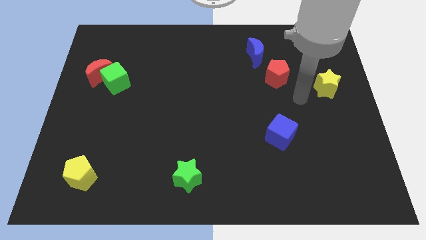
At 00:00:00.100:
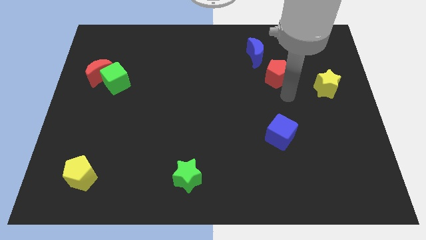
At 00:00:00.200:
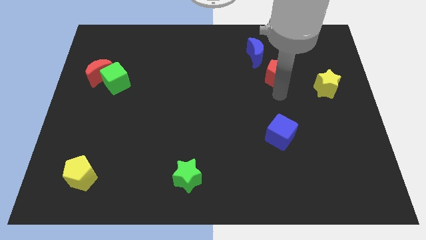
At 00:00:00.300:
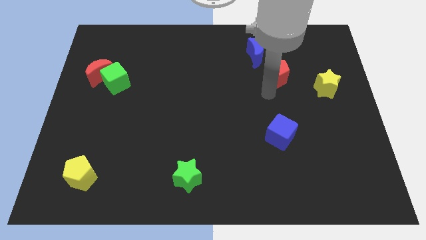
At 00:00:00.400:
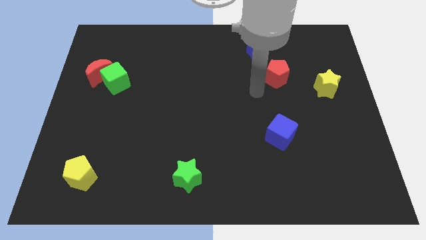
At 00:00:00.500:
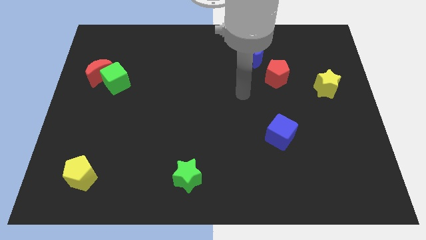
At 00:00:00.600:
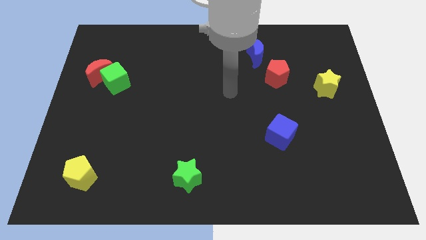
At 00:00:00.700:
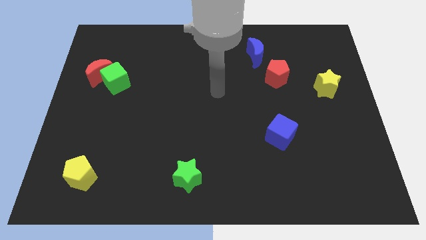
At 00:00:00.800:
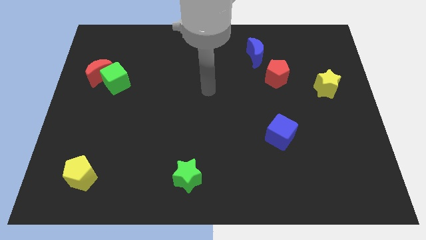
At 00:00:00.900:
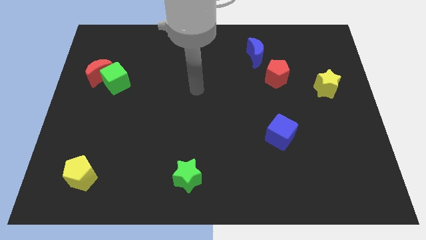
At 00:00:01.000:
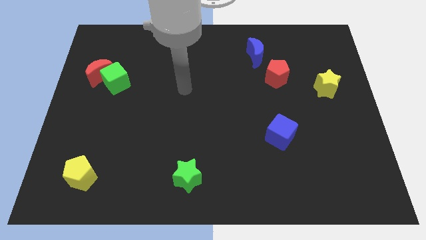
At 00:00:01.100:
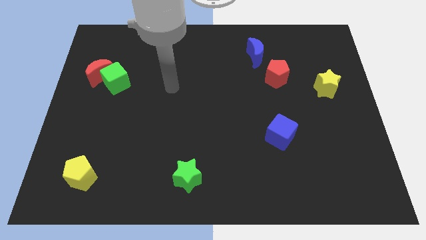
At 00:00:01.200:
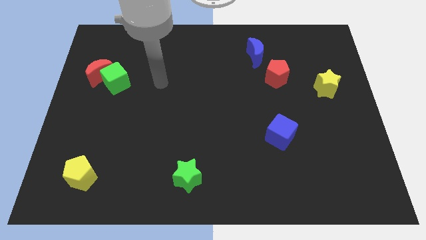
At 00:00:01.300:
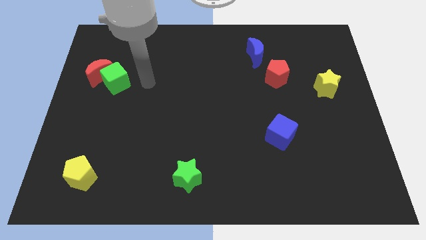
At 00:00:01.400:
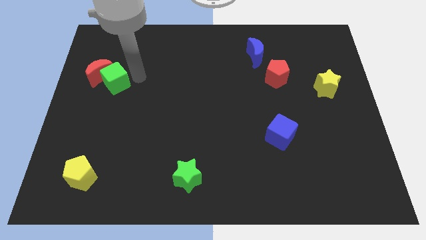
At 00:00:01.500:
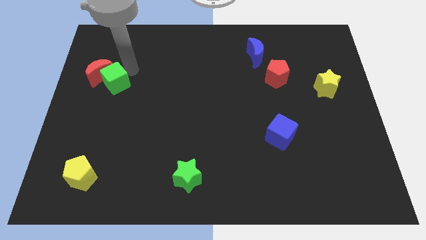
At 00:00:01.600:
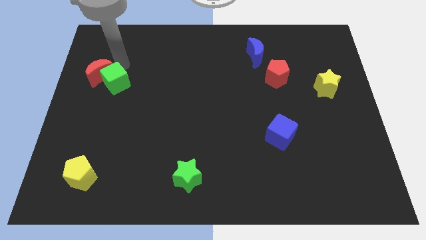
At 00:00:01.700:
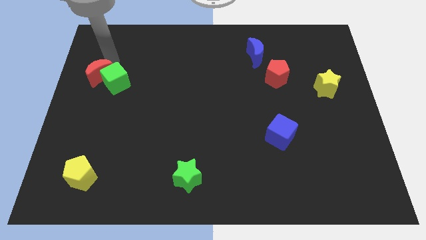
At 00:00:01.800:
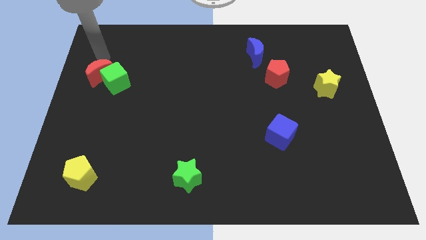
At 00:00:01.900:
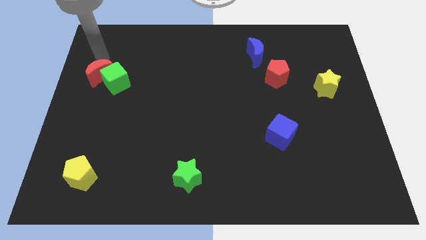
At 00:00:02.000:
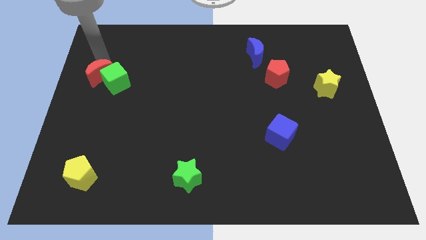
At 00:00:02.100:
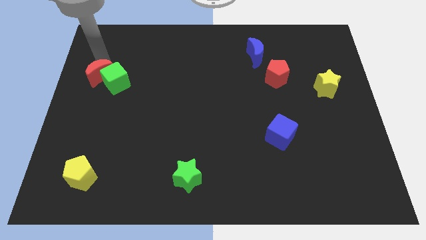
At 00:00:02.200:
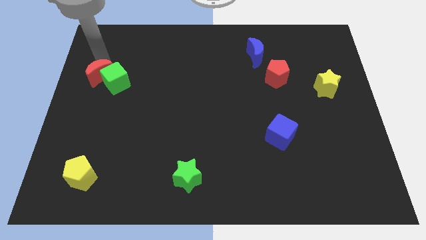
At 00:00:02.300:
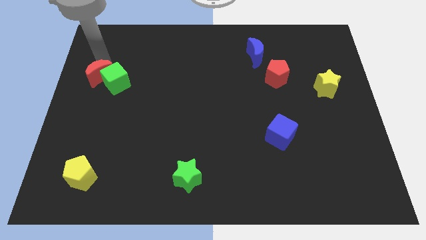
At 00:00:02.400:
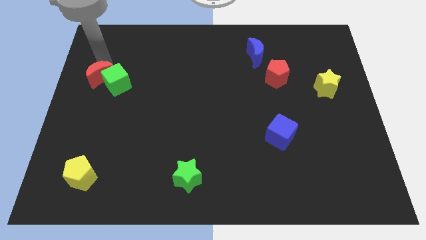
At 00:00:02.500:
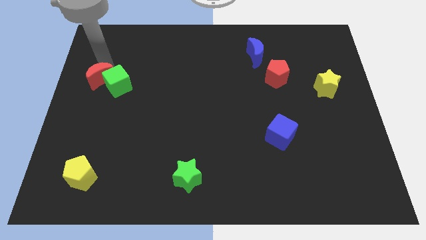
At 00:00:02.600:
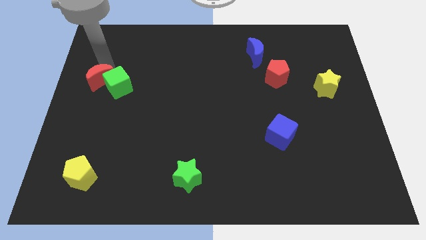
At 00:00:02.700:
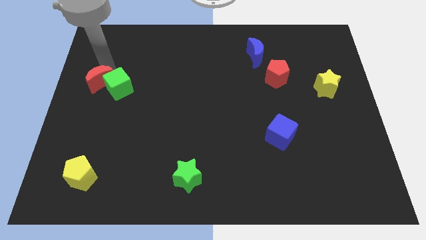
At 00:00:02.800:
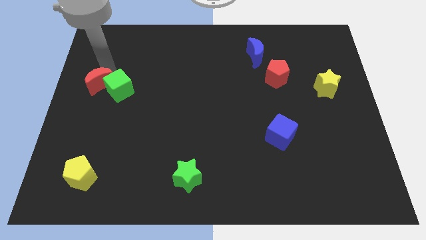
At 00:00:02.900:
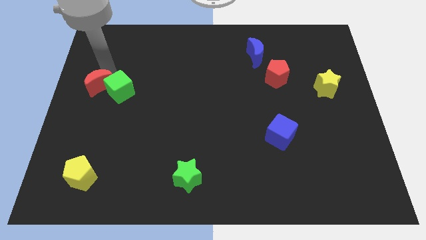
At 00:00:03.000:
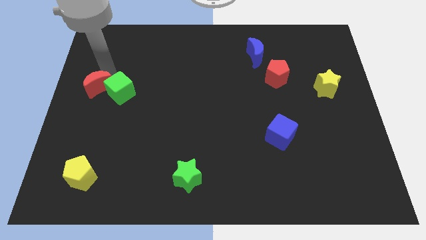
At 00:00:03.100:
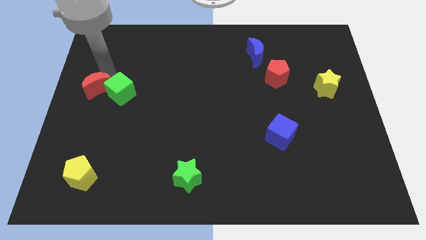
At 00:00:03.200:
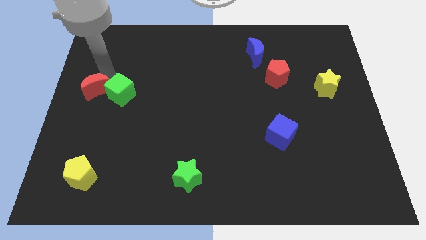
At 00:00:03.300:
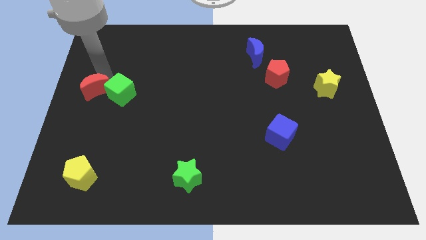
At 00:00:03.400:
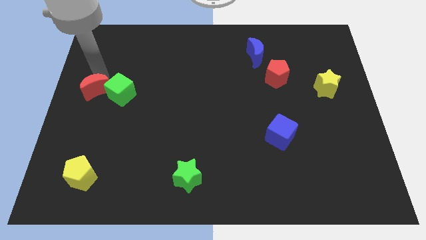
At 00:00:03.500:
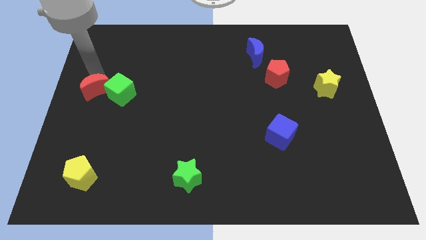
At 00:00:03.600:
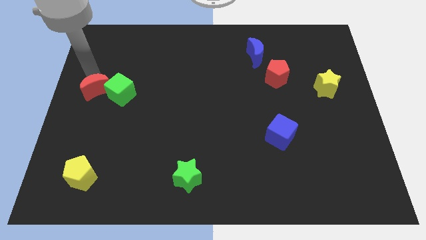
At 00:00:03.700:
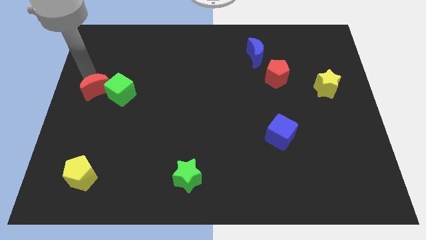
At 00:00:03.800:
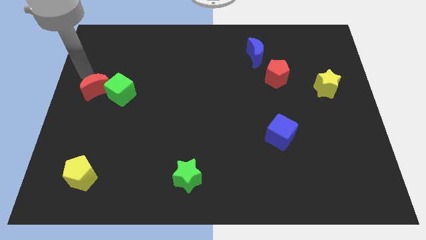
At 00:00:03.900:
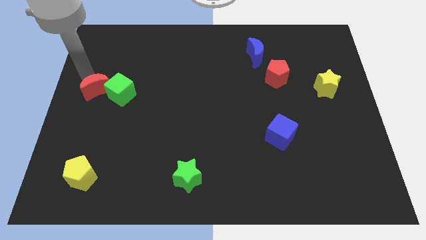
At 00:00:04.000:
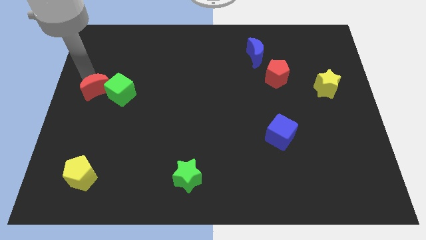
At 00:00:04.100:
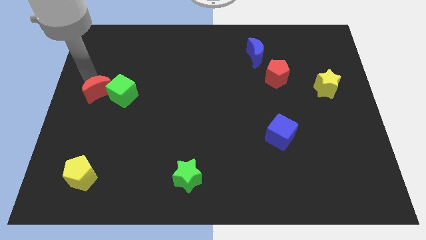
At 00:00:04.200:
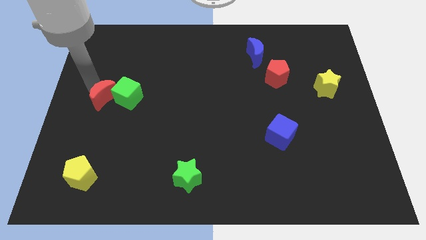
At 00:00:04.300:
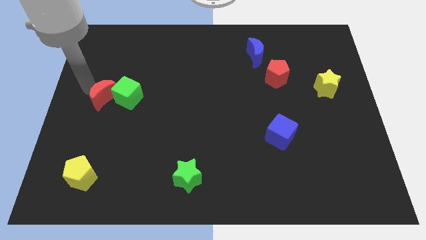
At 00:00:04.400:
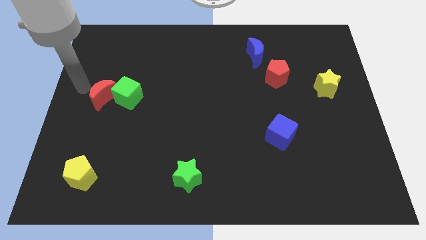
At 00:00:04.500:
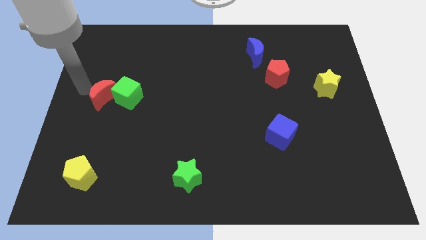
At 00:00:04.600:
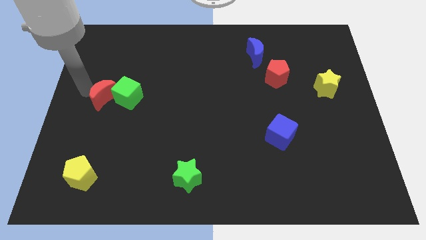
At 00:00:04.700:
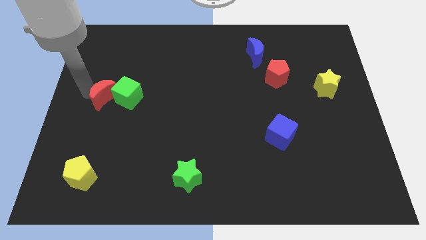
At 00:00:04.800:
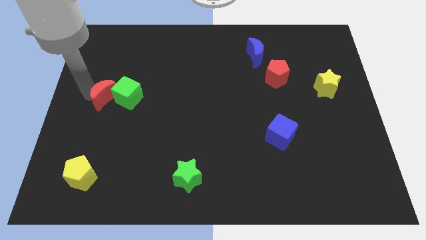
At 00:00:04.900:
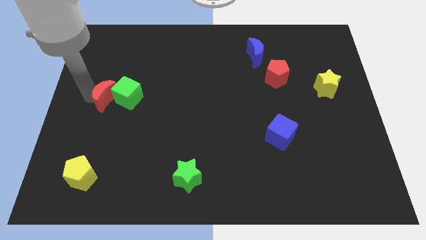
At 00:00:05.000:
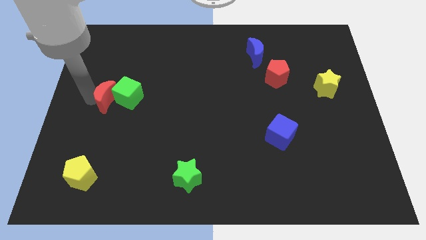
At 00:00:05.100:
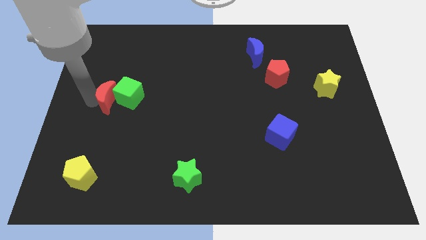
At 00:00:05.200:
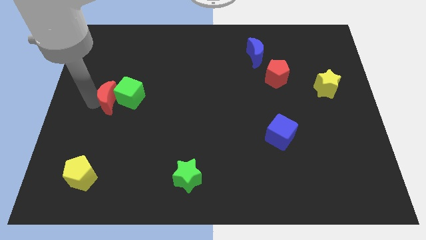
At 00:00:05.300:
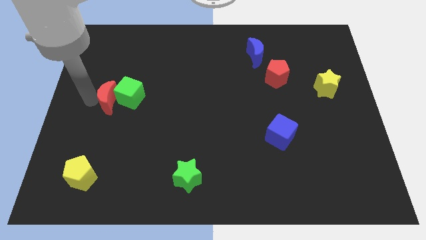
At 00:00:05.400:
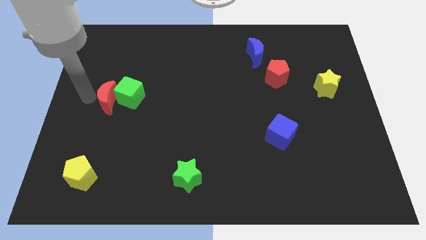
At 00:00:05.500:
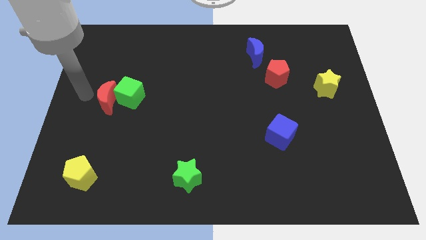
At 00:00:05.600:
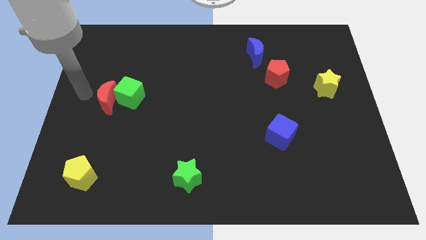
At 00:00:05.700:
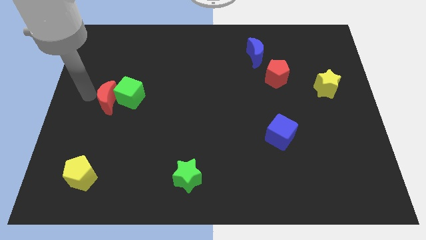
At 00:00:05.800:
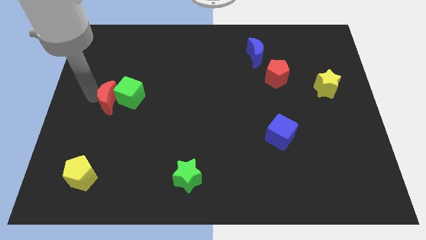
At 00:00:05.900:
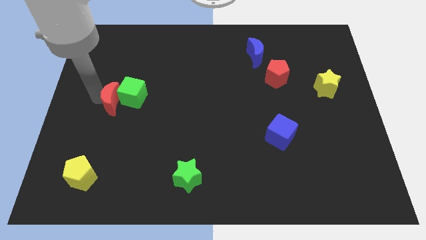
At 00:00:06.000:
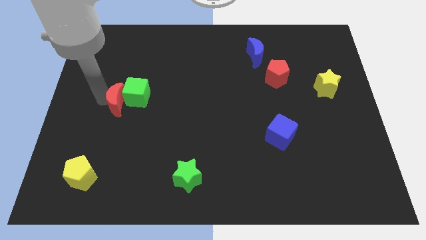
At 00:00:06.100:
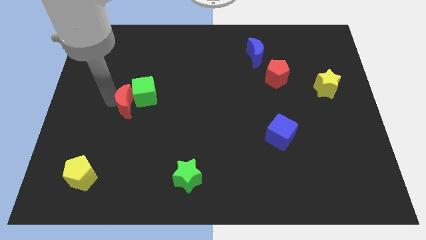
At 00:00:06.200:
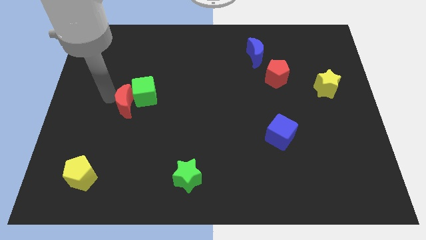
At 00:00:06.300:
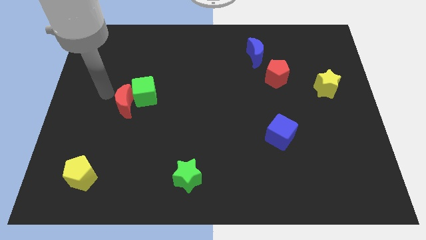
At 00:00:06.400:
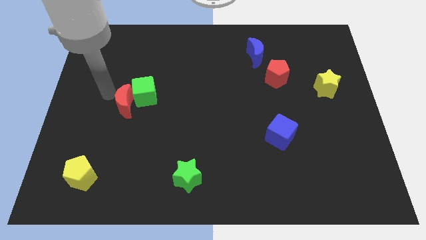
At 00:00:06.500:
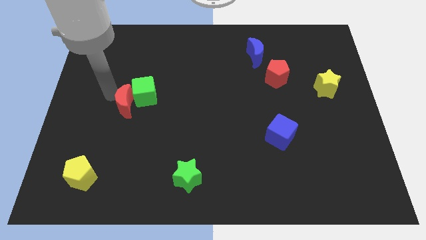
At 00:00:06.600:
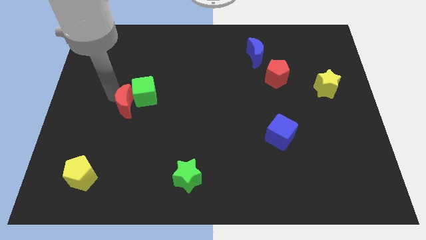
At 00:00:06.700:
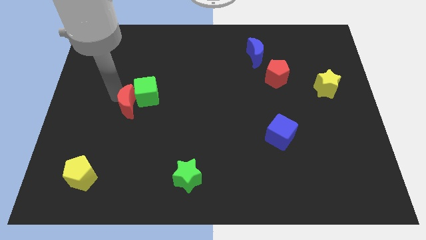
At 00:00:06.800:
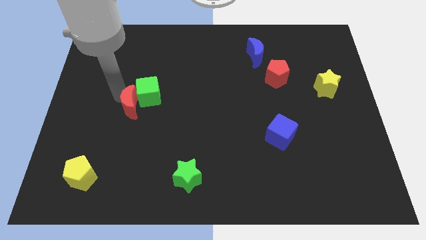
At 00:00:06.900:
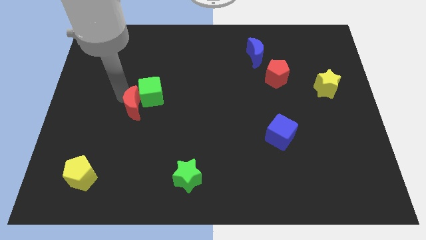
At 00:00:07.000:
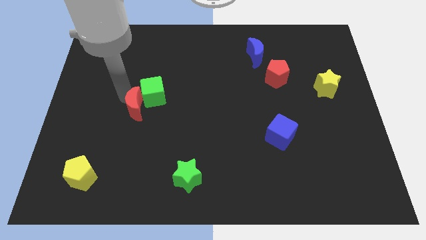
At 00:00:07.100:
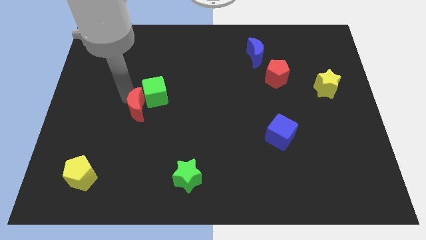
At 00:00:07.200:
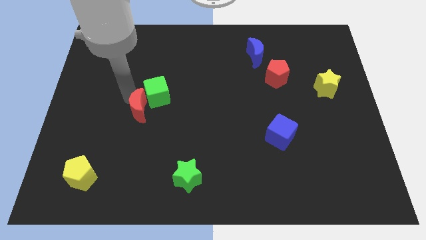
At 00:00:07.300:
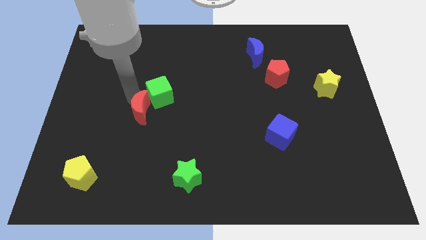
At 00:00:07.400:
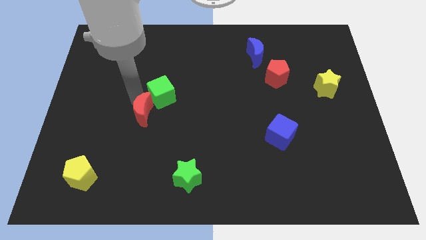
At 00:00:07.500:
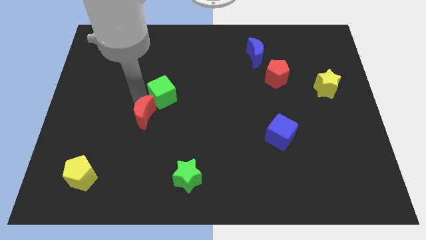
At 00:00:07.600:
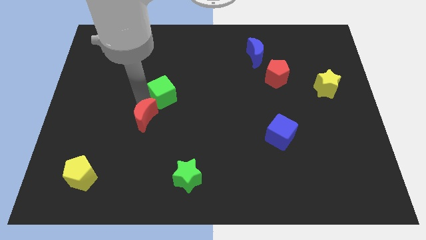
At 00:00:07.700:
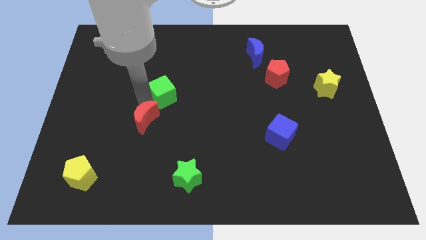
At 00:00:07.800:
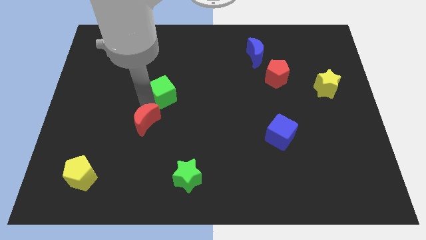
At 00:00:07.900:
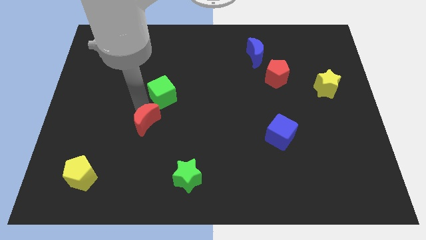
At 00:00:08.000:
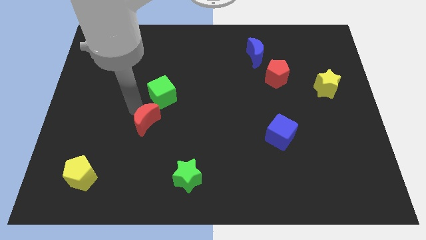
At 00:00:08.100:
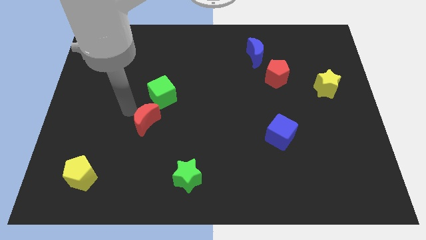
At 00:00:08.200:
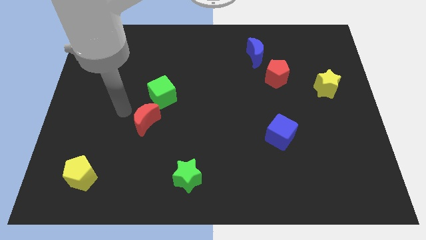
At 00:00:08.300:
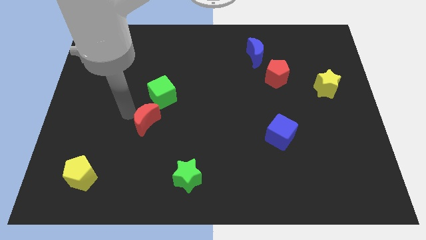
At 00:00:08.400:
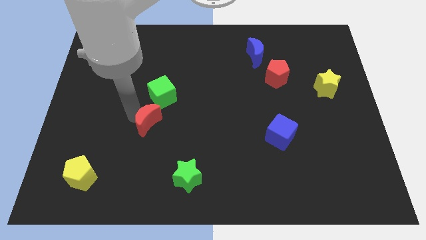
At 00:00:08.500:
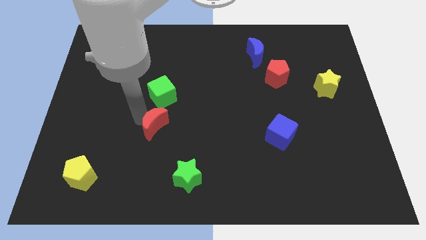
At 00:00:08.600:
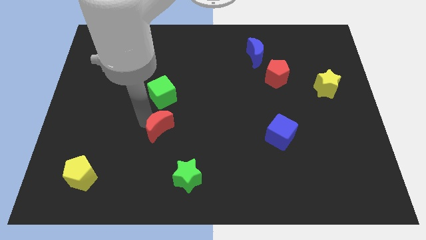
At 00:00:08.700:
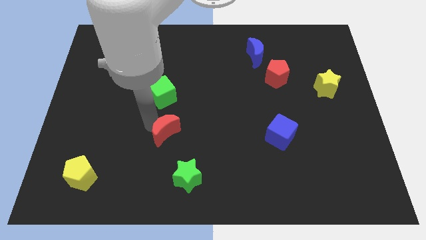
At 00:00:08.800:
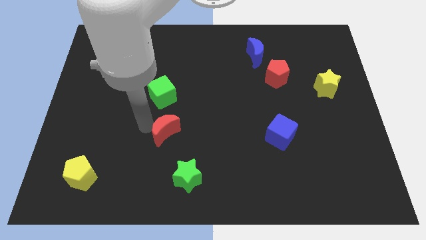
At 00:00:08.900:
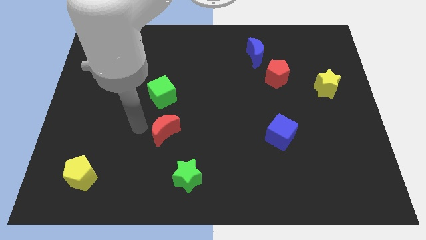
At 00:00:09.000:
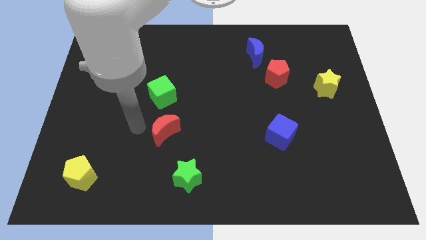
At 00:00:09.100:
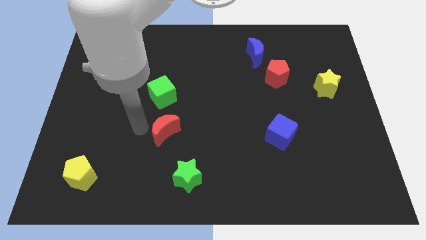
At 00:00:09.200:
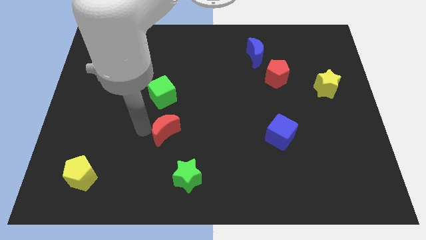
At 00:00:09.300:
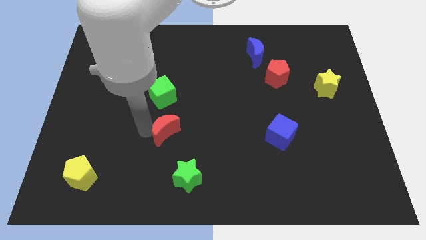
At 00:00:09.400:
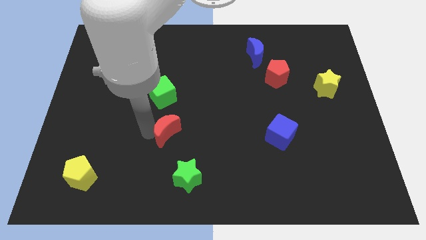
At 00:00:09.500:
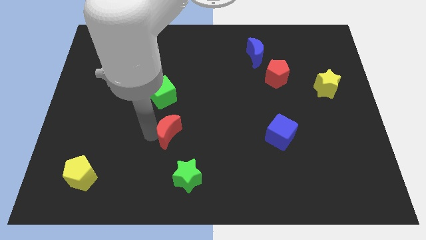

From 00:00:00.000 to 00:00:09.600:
put the red moon above the green star
